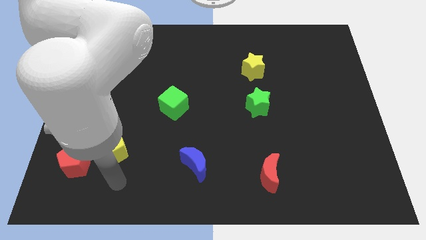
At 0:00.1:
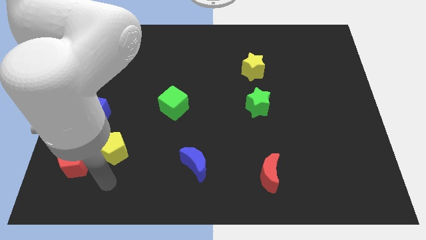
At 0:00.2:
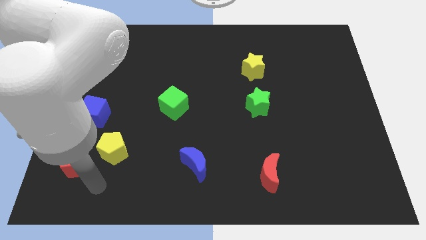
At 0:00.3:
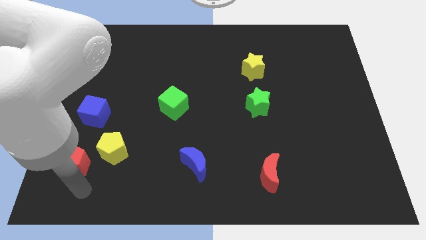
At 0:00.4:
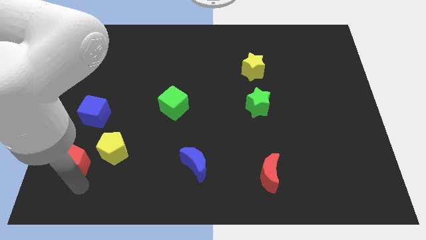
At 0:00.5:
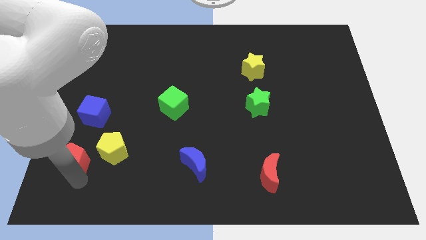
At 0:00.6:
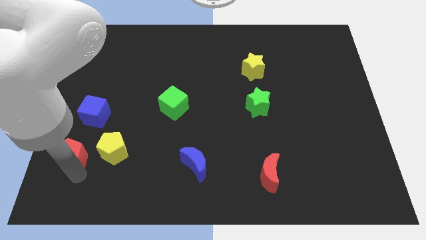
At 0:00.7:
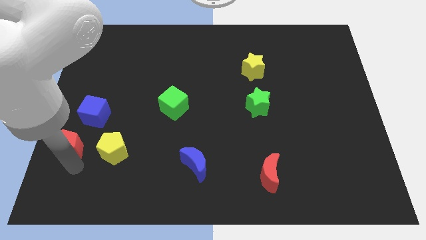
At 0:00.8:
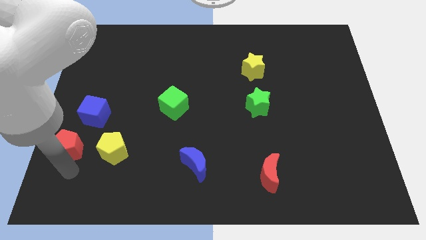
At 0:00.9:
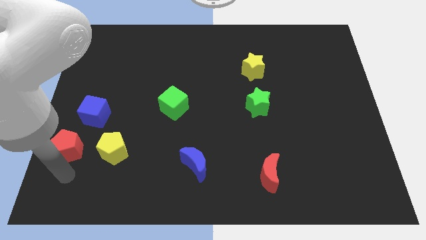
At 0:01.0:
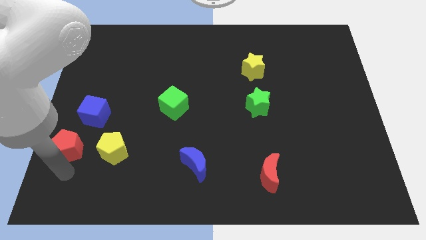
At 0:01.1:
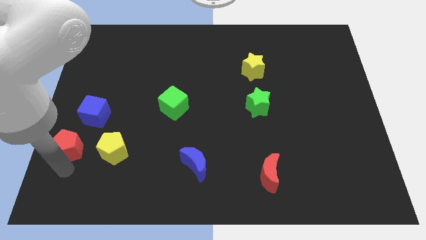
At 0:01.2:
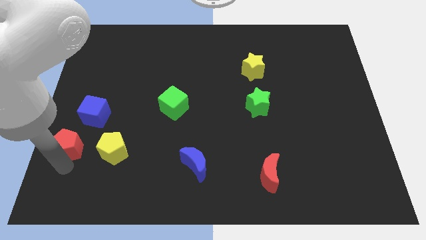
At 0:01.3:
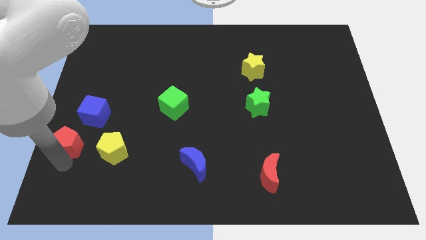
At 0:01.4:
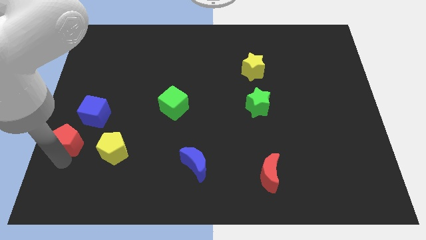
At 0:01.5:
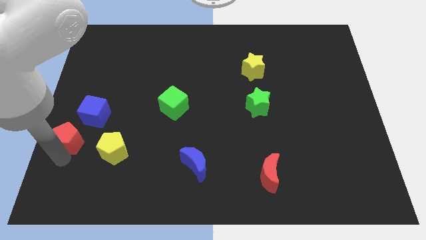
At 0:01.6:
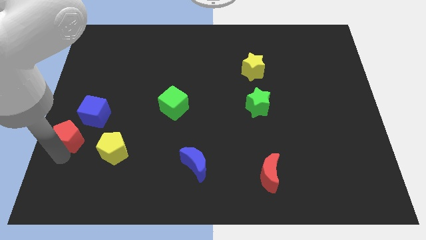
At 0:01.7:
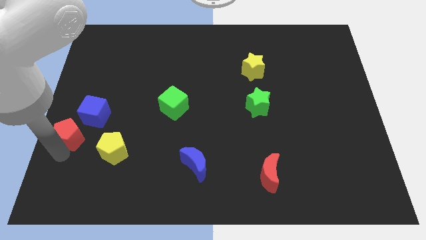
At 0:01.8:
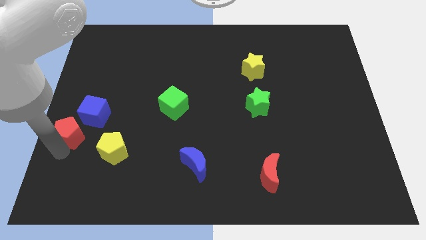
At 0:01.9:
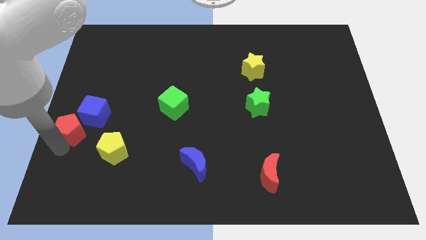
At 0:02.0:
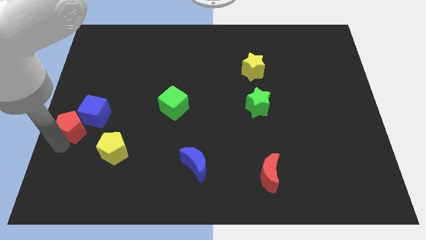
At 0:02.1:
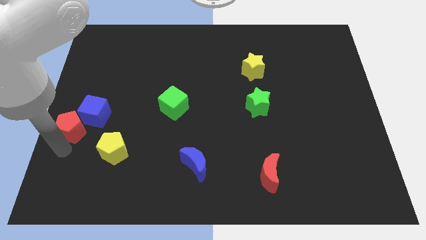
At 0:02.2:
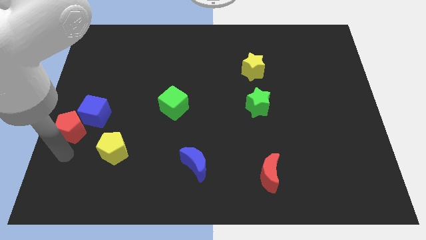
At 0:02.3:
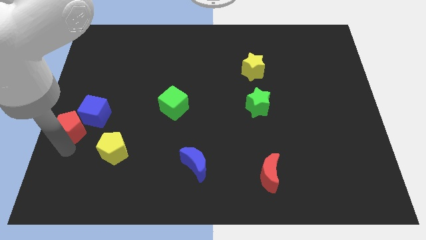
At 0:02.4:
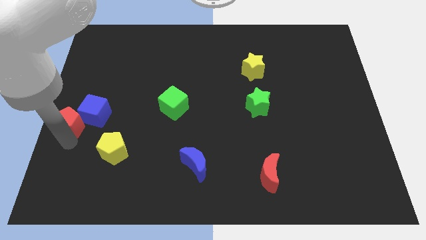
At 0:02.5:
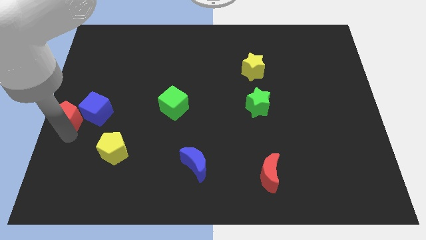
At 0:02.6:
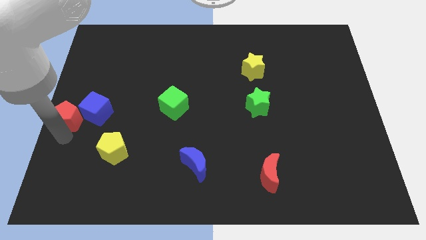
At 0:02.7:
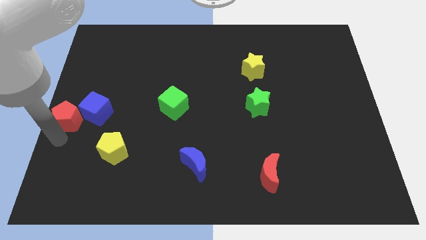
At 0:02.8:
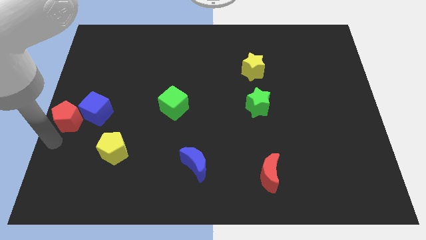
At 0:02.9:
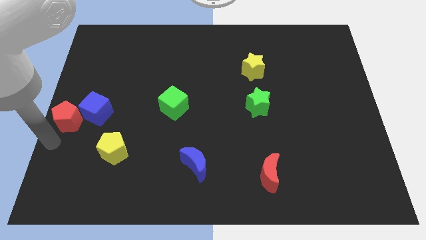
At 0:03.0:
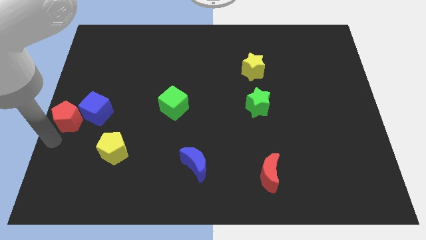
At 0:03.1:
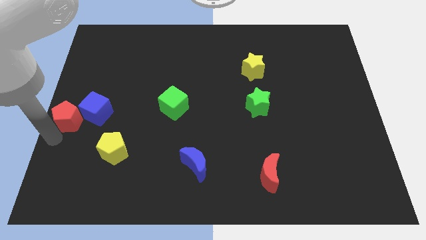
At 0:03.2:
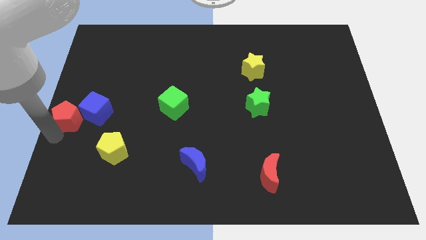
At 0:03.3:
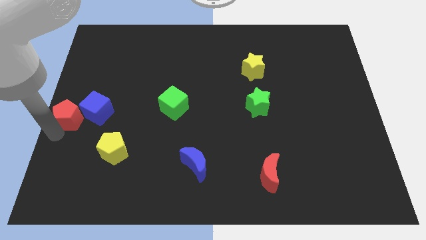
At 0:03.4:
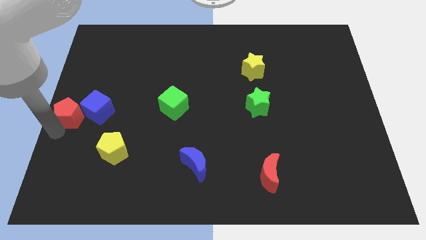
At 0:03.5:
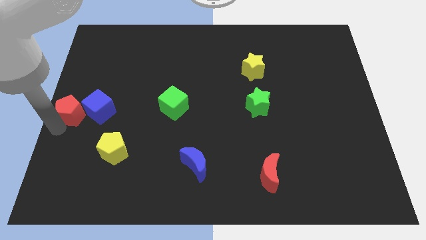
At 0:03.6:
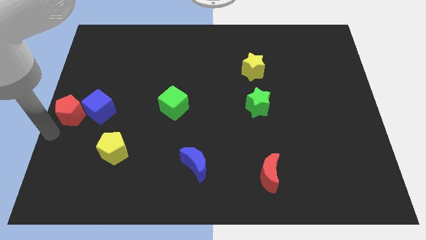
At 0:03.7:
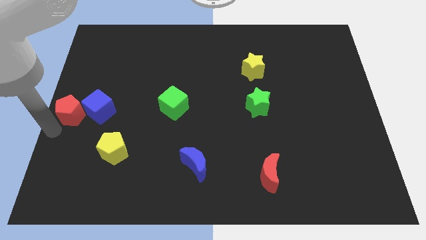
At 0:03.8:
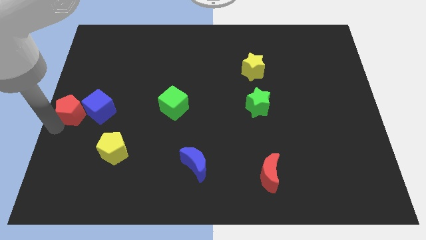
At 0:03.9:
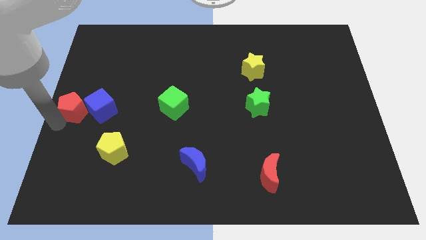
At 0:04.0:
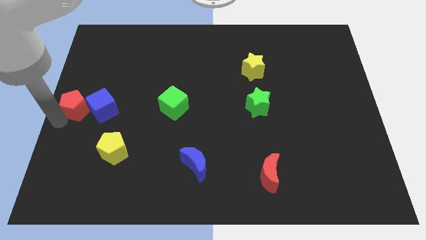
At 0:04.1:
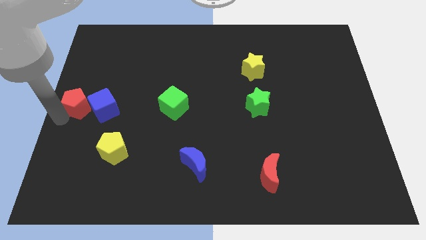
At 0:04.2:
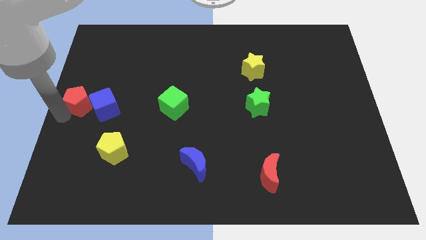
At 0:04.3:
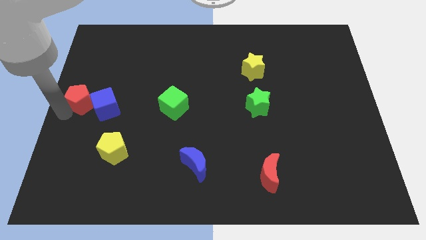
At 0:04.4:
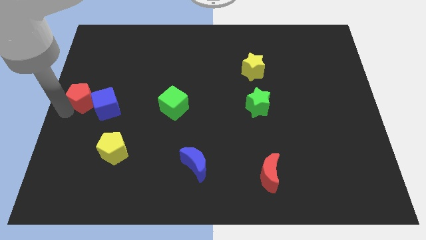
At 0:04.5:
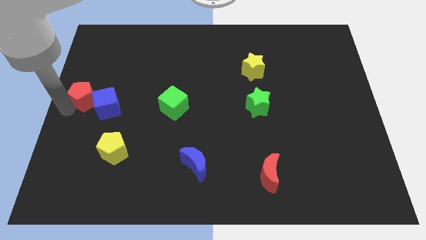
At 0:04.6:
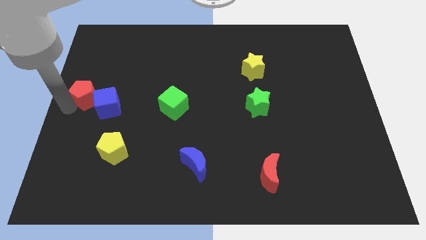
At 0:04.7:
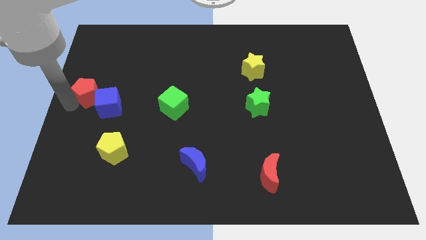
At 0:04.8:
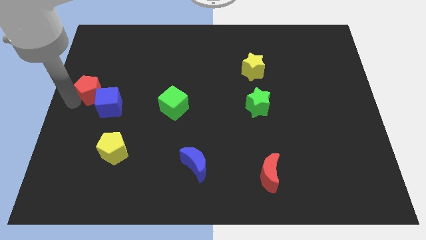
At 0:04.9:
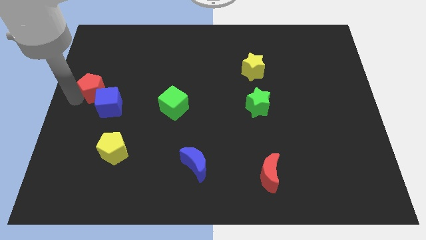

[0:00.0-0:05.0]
move the red pentagon to the top side of the blue cube

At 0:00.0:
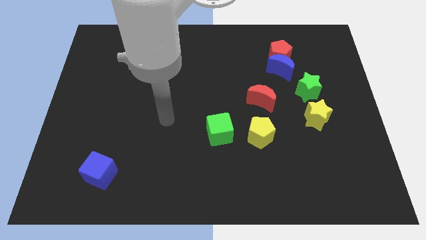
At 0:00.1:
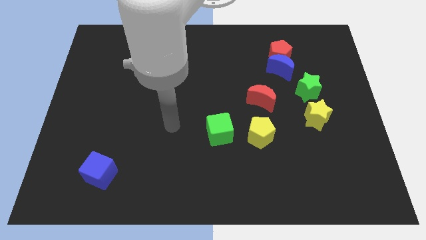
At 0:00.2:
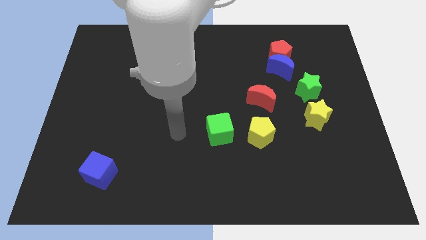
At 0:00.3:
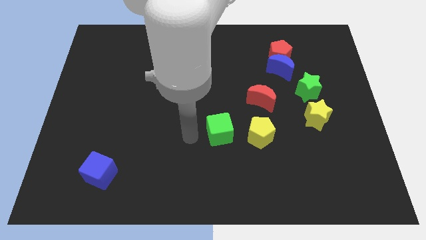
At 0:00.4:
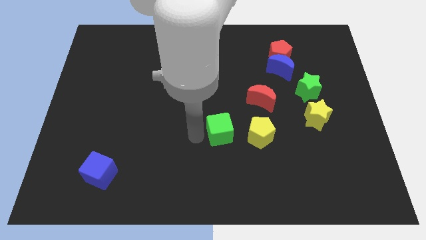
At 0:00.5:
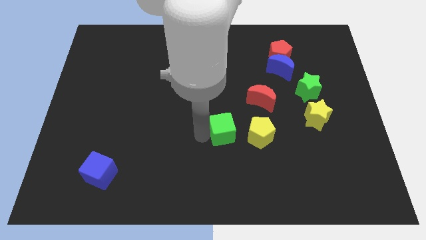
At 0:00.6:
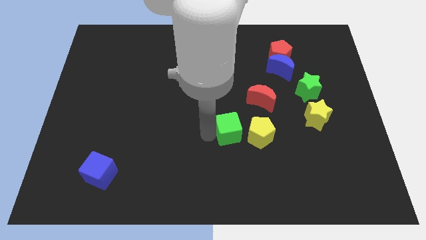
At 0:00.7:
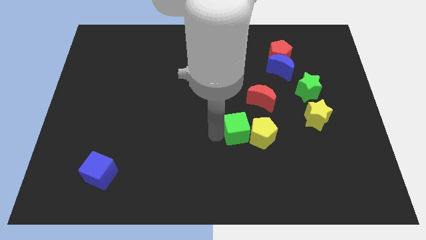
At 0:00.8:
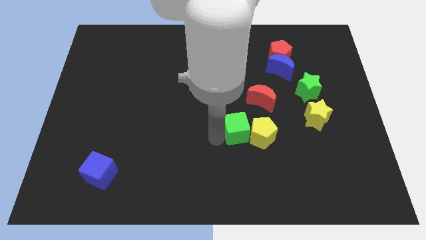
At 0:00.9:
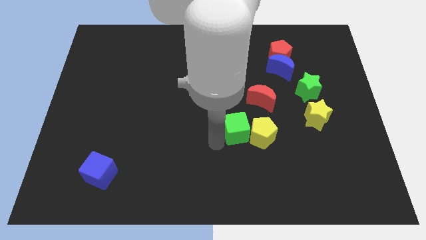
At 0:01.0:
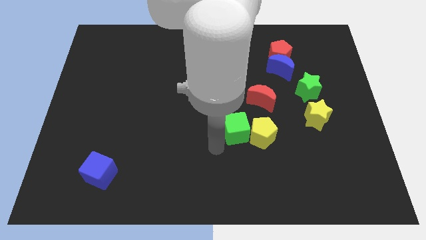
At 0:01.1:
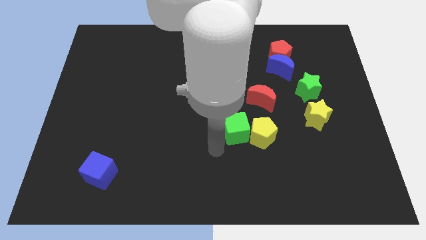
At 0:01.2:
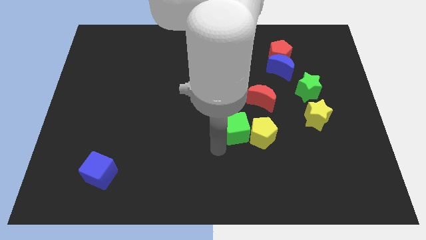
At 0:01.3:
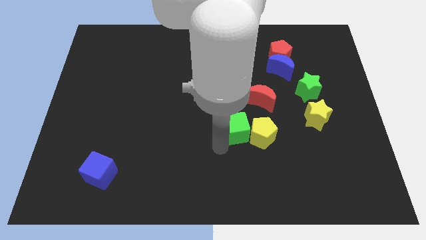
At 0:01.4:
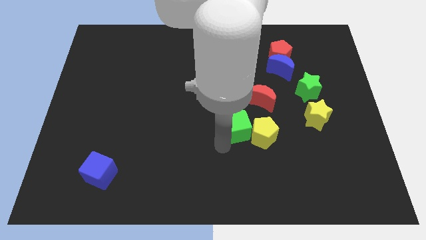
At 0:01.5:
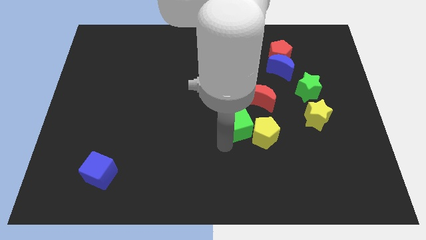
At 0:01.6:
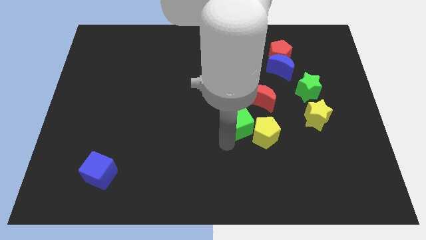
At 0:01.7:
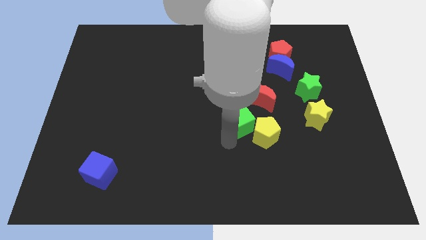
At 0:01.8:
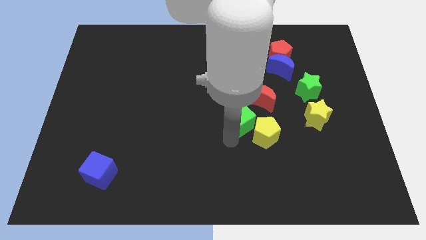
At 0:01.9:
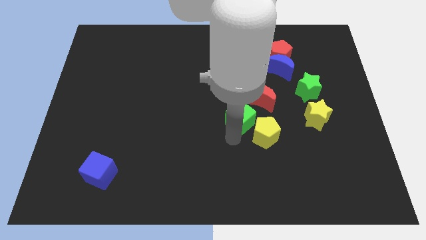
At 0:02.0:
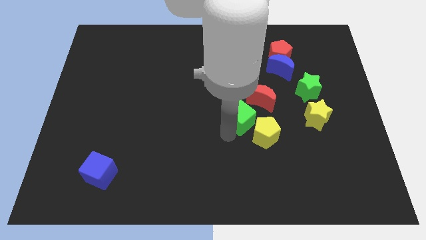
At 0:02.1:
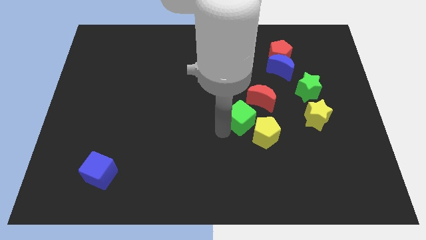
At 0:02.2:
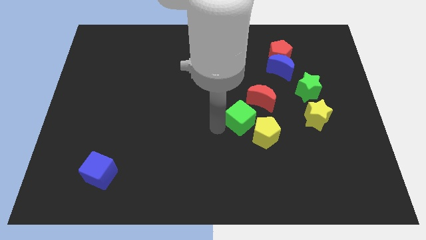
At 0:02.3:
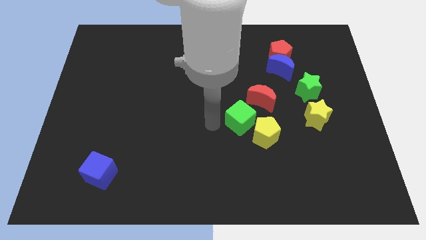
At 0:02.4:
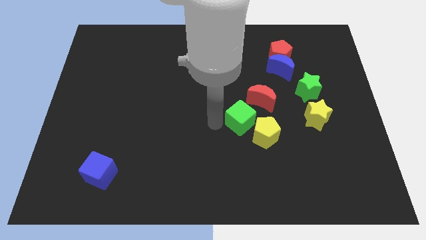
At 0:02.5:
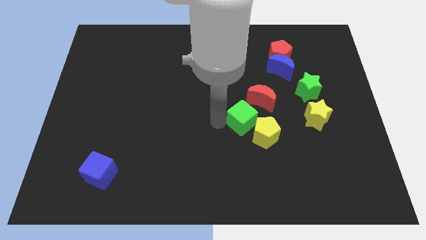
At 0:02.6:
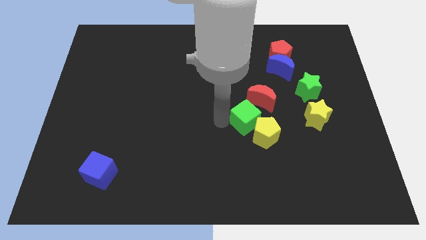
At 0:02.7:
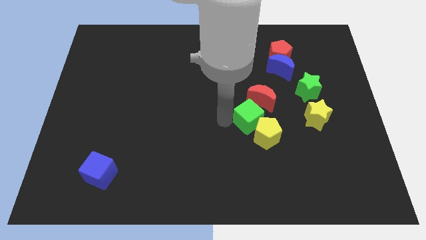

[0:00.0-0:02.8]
put the green cube left of the yellow star
